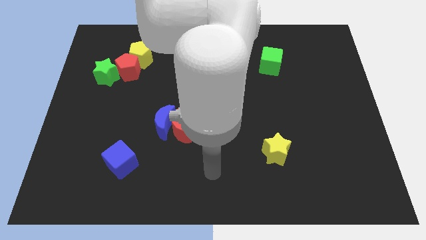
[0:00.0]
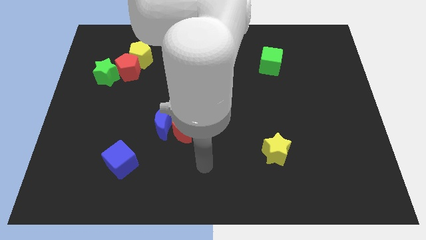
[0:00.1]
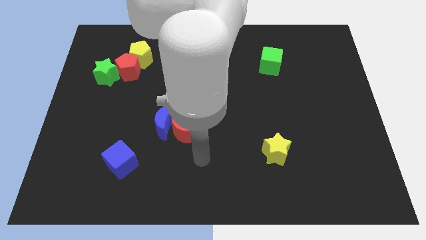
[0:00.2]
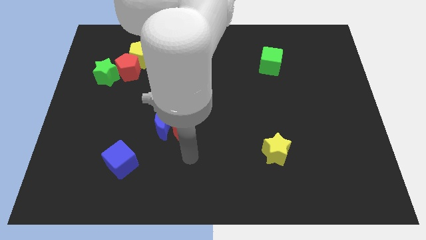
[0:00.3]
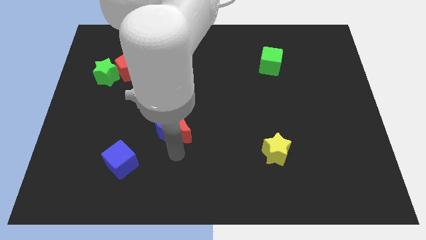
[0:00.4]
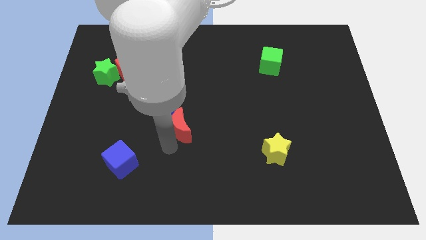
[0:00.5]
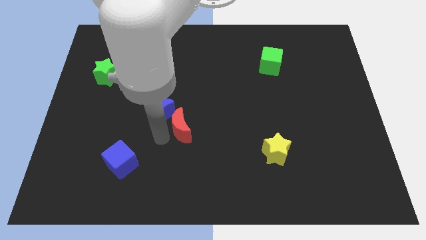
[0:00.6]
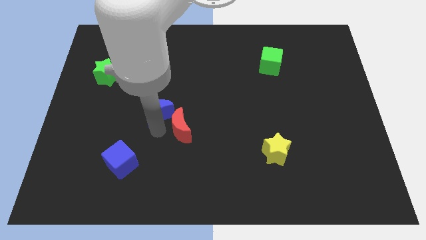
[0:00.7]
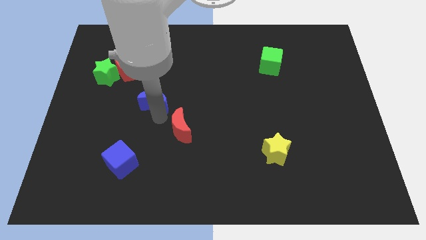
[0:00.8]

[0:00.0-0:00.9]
separate the red moon from the blue moon

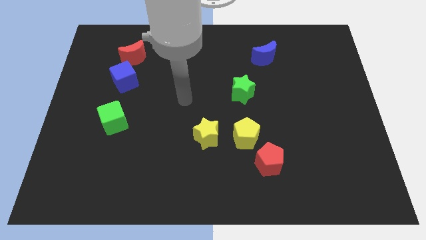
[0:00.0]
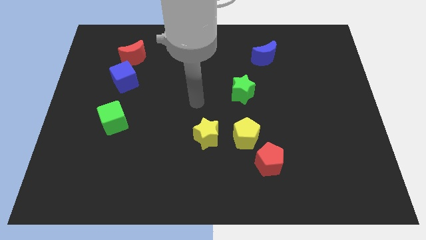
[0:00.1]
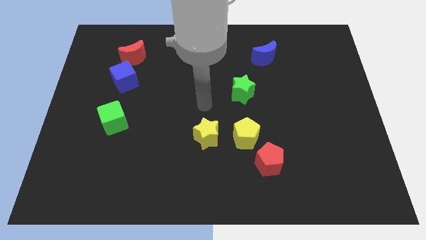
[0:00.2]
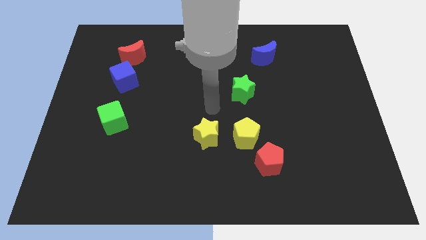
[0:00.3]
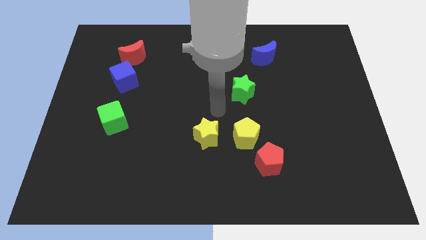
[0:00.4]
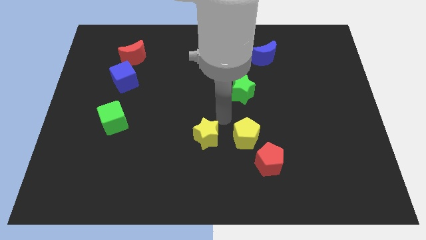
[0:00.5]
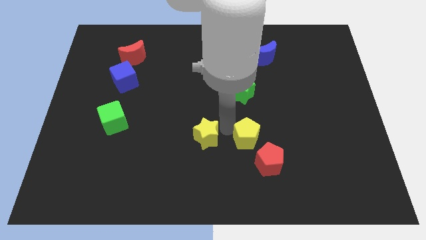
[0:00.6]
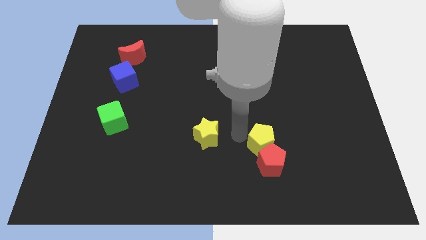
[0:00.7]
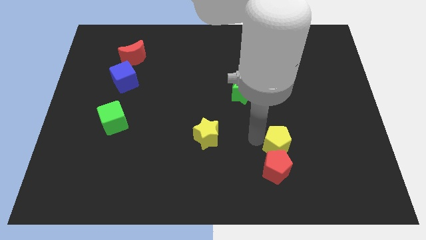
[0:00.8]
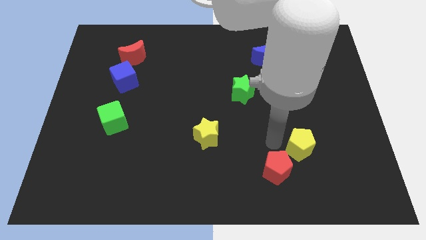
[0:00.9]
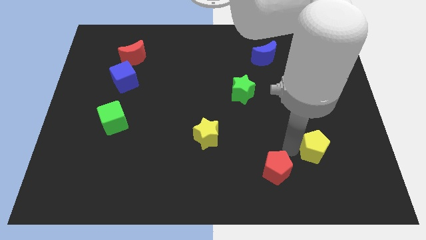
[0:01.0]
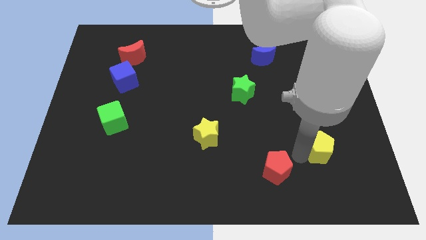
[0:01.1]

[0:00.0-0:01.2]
move the red pentagon away from the yellow pentagon

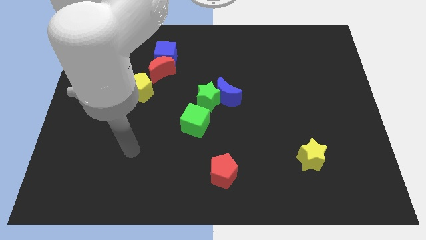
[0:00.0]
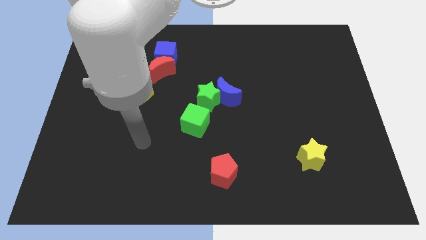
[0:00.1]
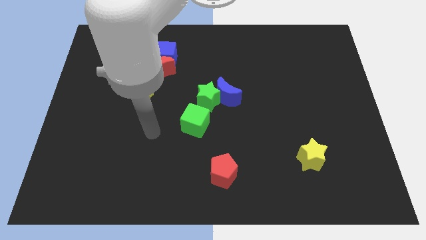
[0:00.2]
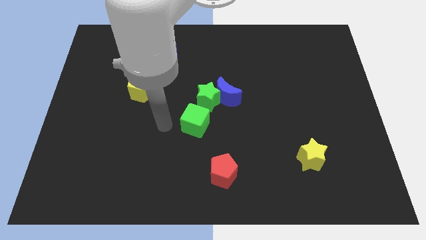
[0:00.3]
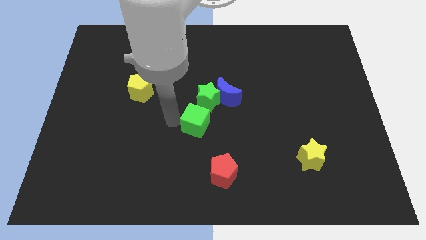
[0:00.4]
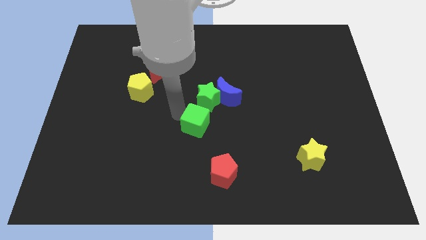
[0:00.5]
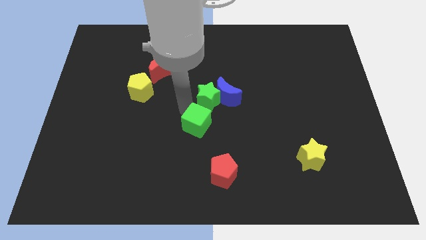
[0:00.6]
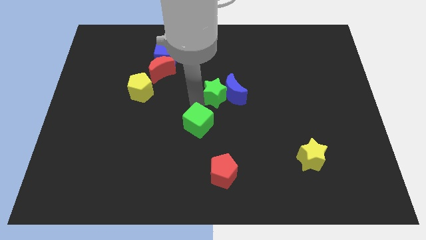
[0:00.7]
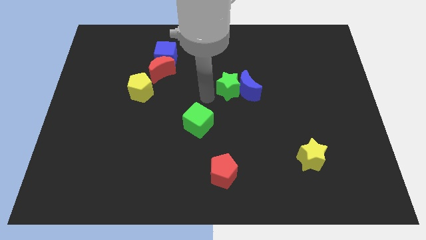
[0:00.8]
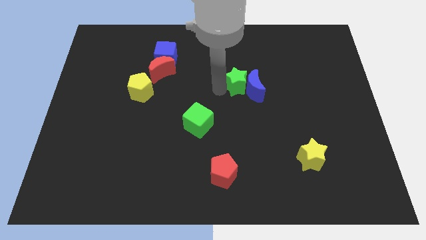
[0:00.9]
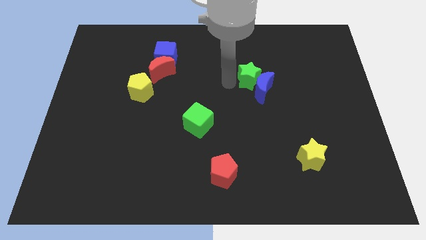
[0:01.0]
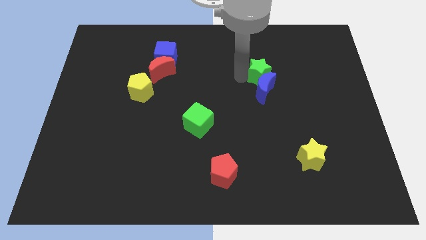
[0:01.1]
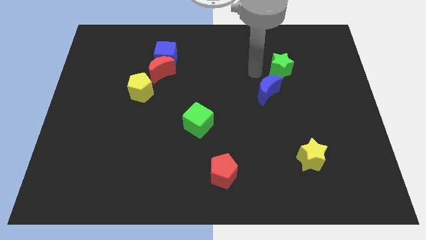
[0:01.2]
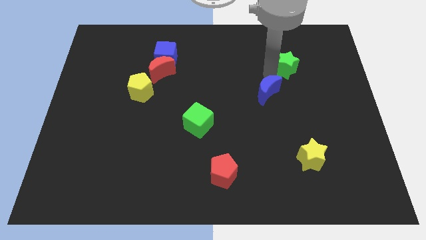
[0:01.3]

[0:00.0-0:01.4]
move the blue moon away from the green star

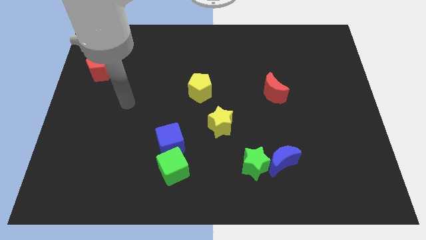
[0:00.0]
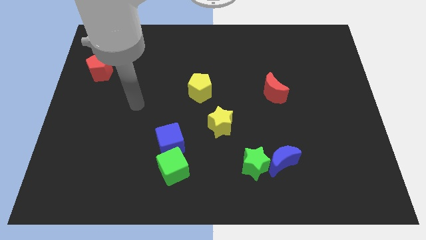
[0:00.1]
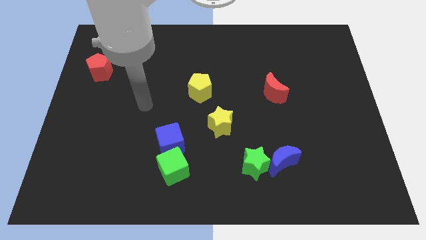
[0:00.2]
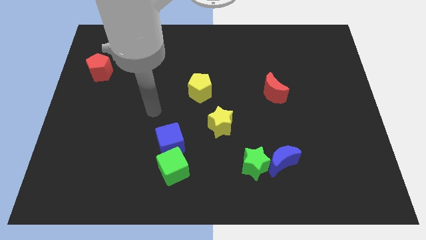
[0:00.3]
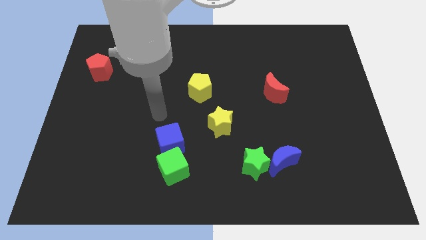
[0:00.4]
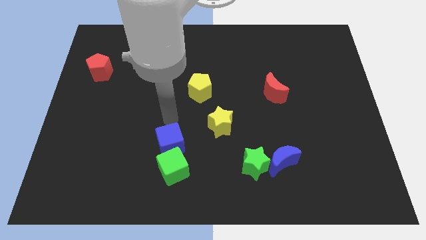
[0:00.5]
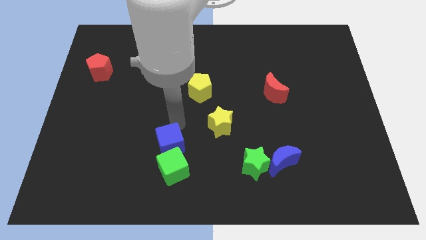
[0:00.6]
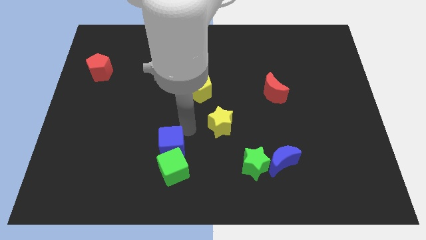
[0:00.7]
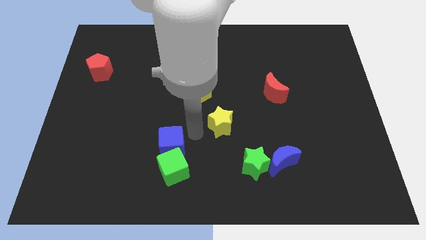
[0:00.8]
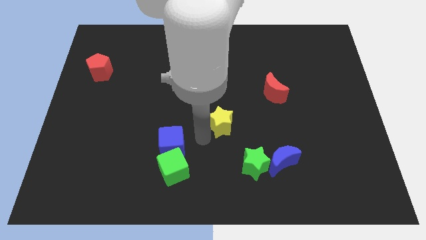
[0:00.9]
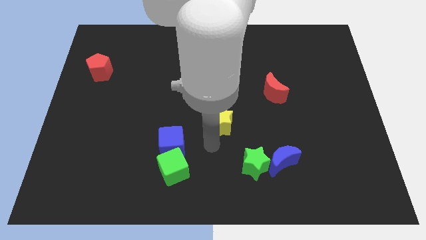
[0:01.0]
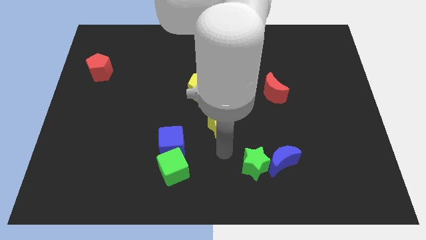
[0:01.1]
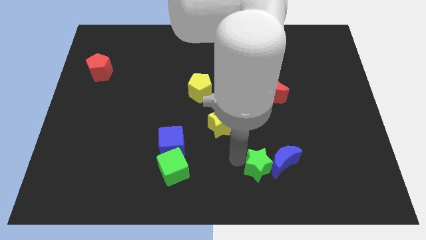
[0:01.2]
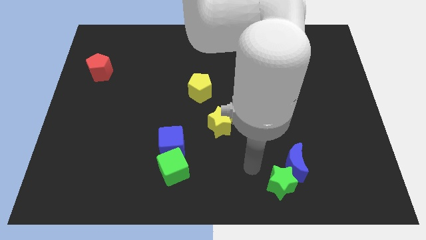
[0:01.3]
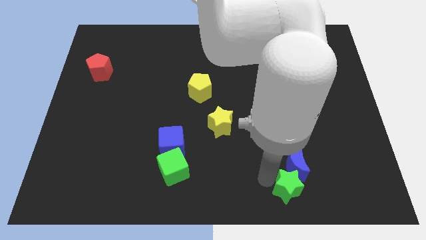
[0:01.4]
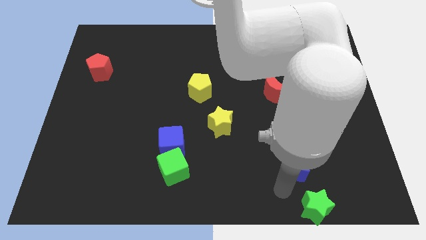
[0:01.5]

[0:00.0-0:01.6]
separate the blue moon from the green star

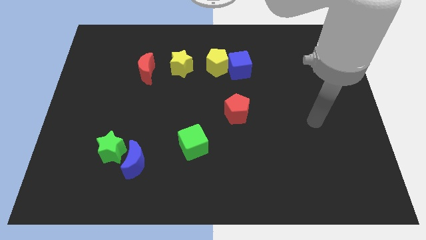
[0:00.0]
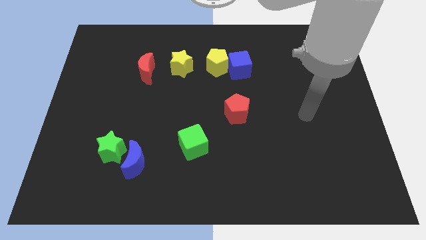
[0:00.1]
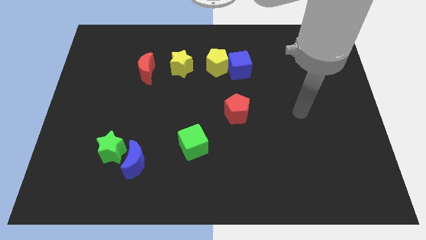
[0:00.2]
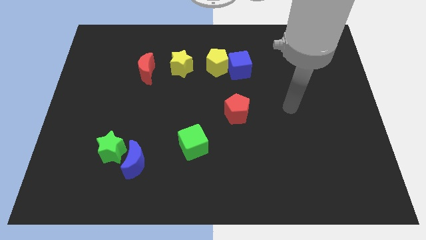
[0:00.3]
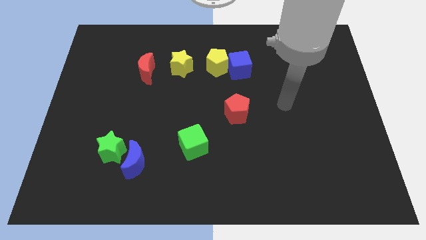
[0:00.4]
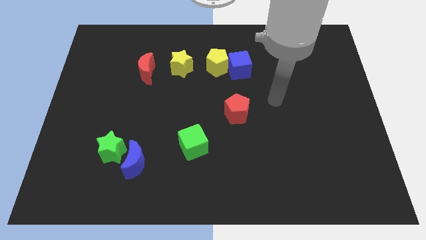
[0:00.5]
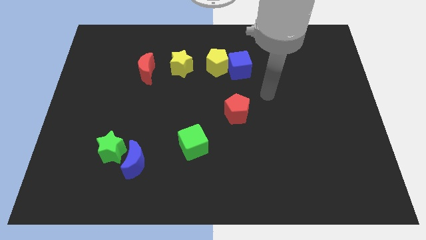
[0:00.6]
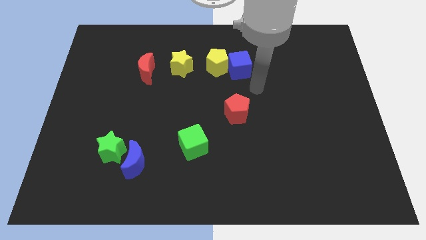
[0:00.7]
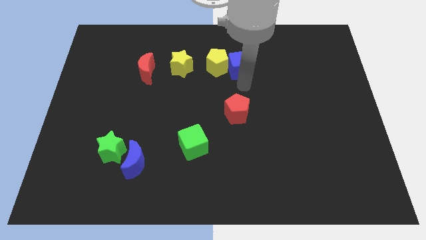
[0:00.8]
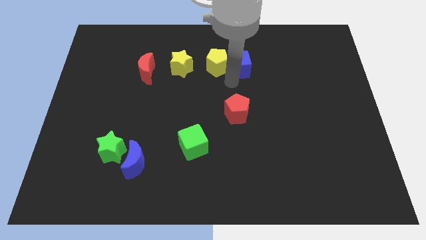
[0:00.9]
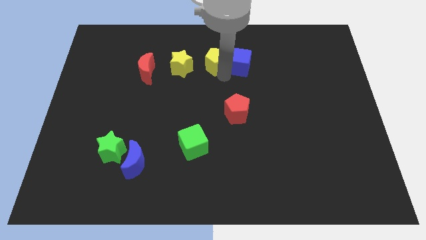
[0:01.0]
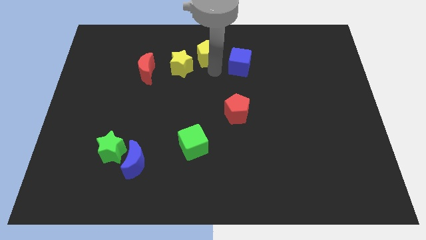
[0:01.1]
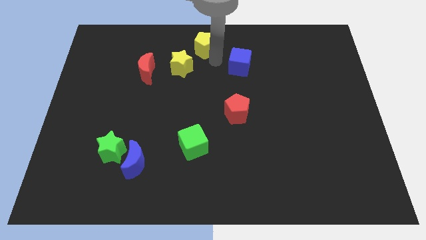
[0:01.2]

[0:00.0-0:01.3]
separate the blue cube from the yellow pentagon

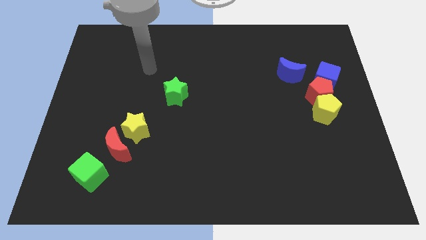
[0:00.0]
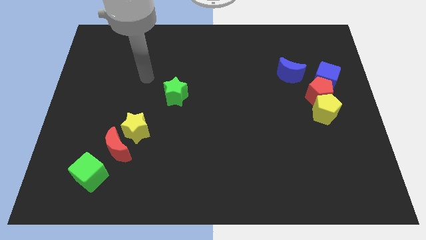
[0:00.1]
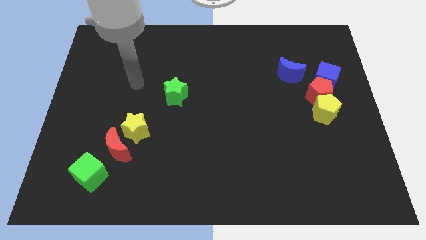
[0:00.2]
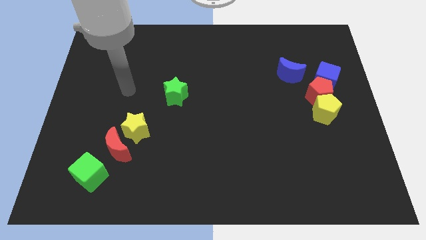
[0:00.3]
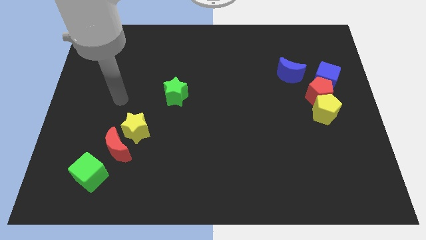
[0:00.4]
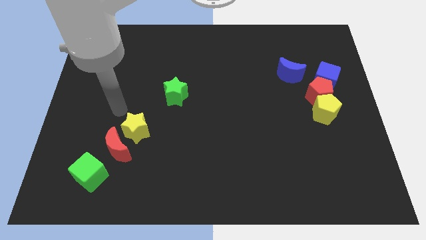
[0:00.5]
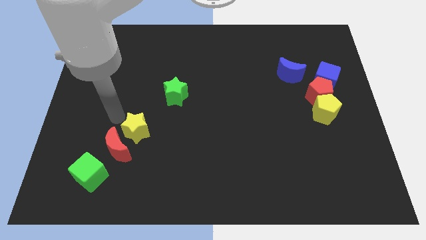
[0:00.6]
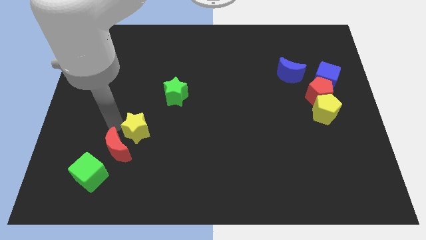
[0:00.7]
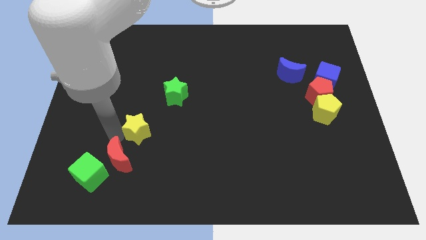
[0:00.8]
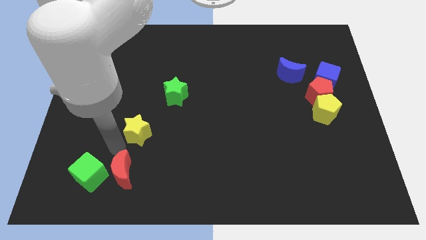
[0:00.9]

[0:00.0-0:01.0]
move the yellow star away from the red moon

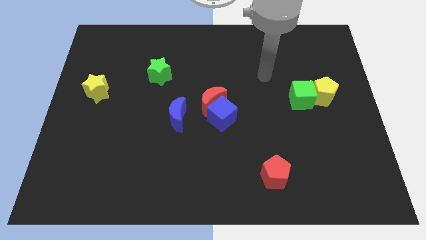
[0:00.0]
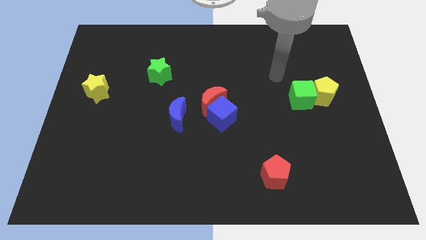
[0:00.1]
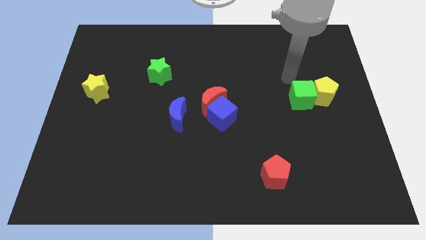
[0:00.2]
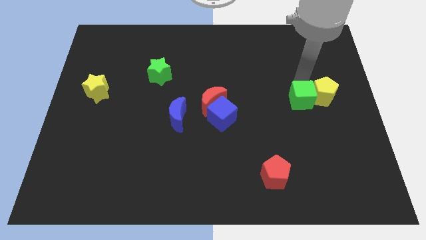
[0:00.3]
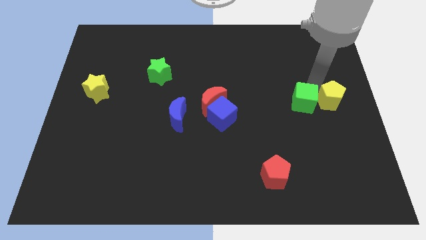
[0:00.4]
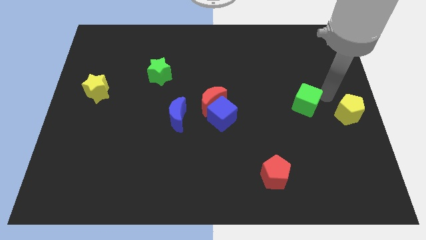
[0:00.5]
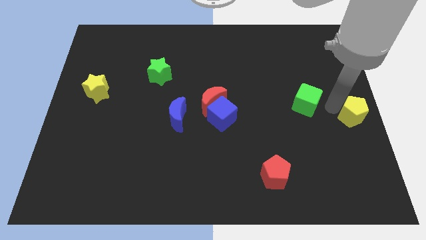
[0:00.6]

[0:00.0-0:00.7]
separate the green cube from the yellow pentagon

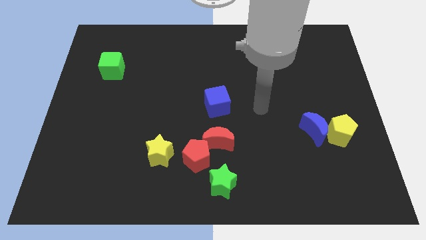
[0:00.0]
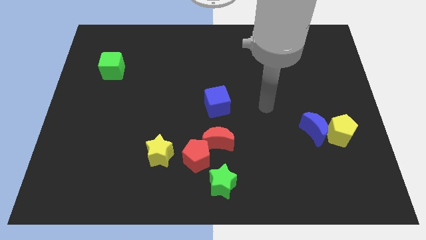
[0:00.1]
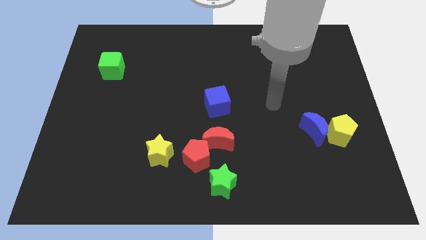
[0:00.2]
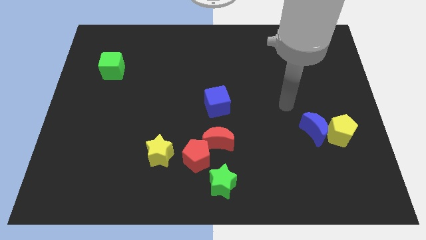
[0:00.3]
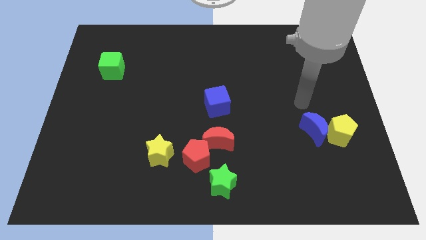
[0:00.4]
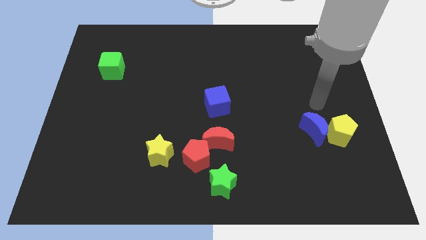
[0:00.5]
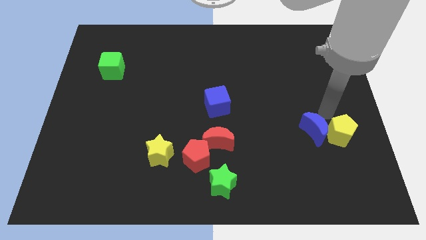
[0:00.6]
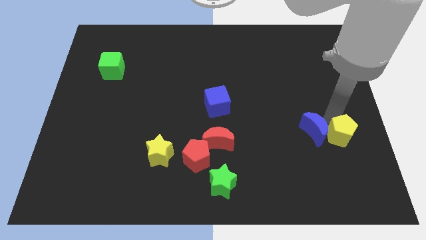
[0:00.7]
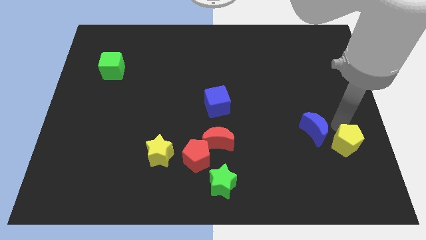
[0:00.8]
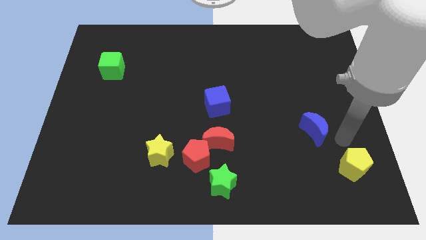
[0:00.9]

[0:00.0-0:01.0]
pull the blue moon apart from the yellow pentagon
